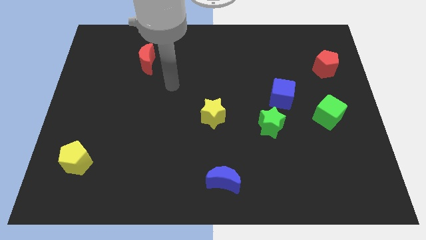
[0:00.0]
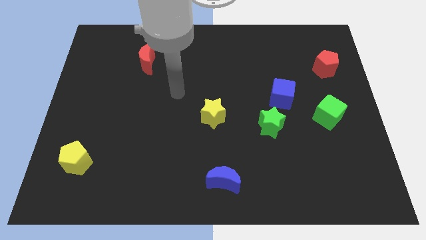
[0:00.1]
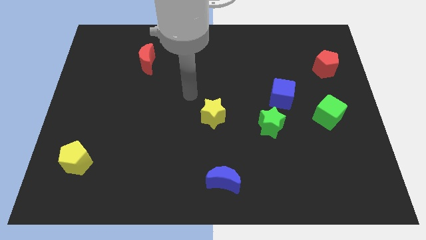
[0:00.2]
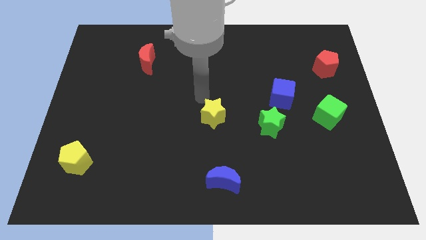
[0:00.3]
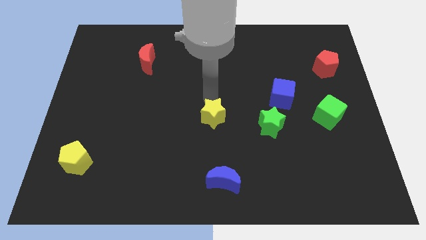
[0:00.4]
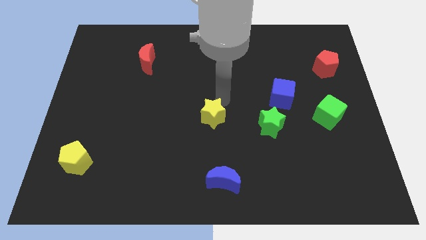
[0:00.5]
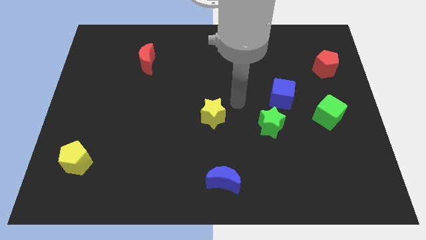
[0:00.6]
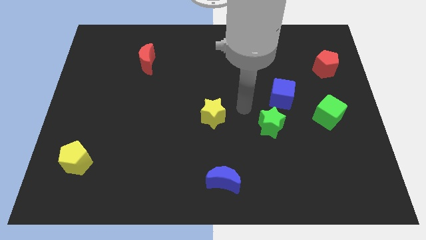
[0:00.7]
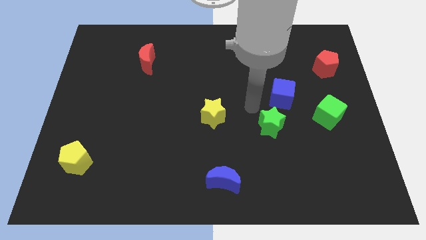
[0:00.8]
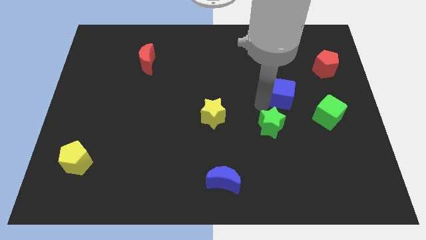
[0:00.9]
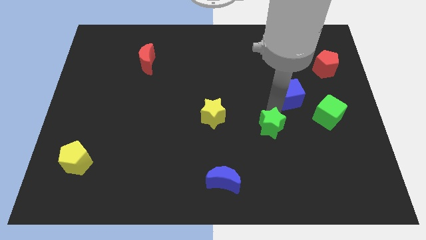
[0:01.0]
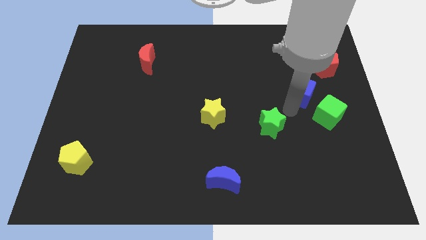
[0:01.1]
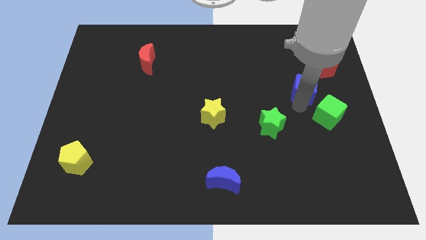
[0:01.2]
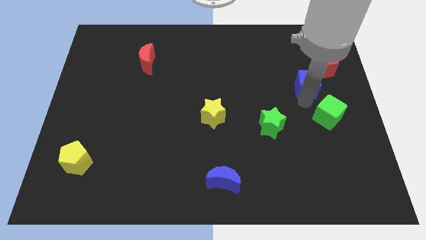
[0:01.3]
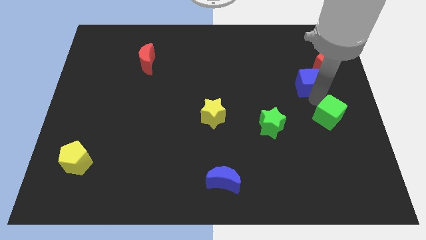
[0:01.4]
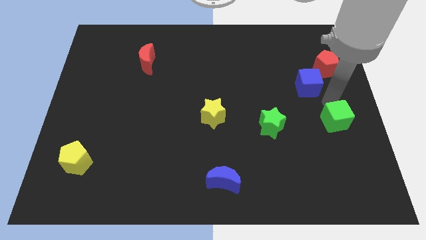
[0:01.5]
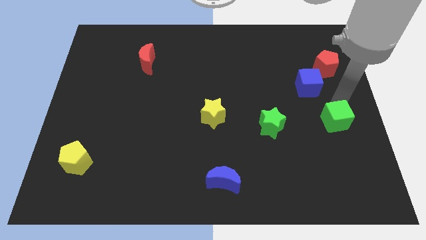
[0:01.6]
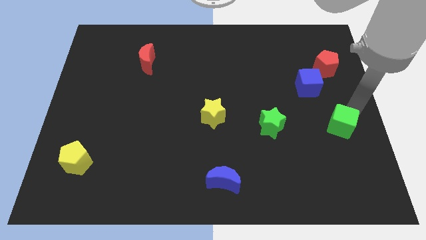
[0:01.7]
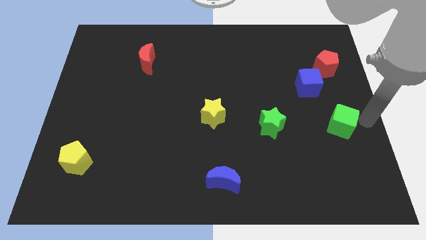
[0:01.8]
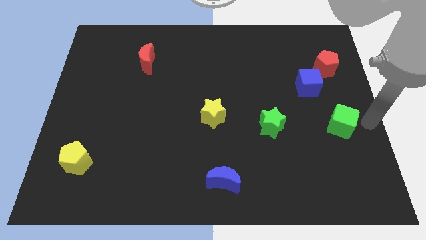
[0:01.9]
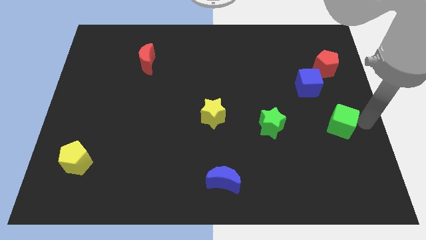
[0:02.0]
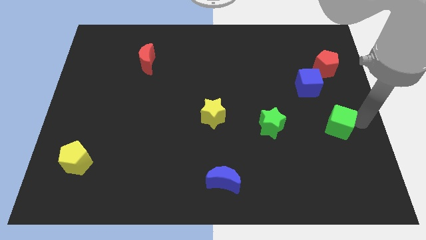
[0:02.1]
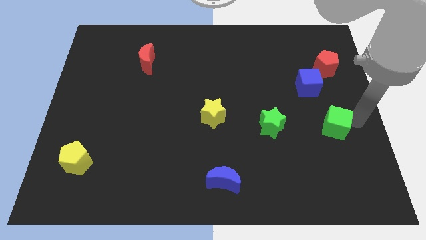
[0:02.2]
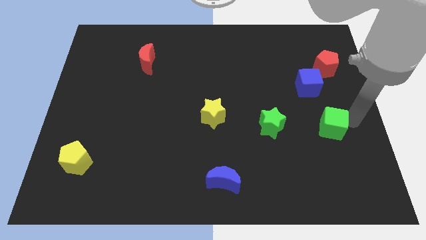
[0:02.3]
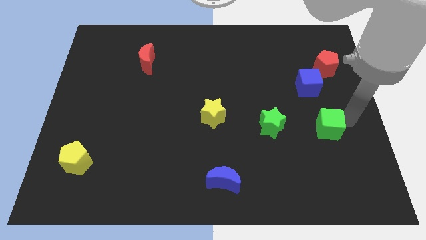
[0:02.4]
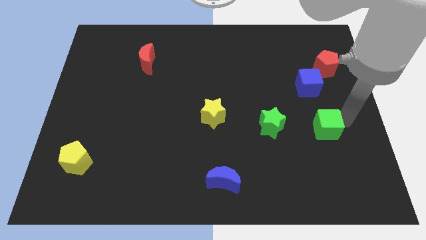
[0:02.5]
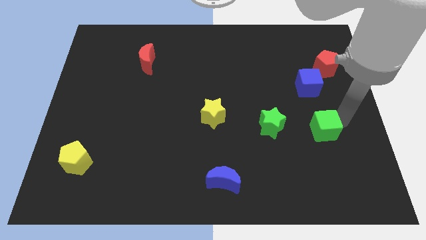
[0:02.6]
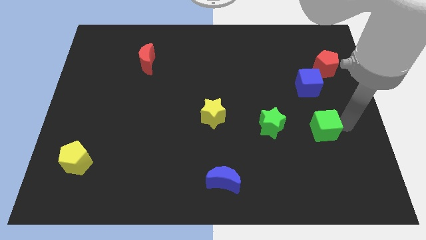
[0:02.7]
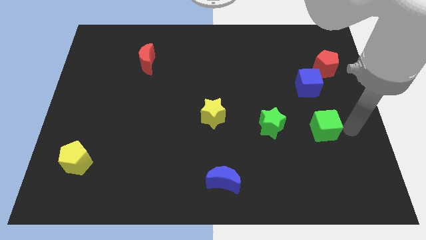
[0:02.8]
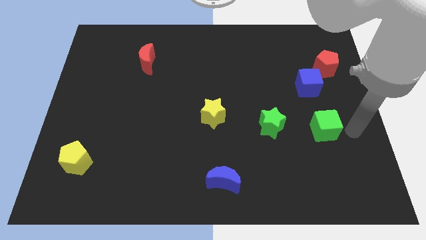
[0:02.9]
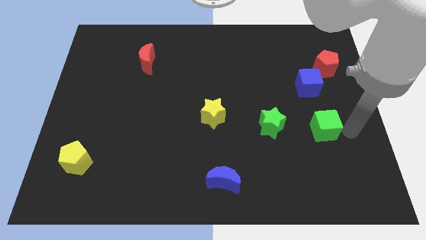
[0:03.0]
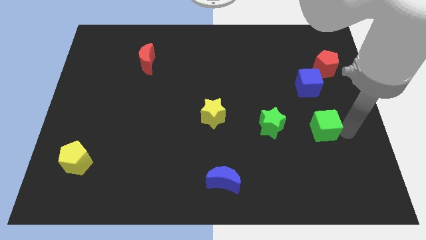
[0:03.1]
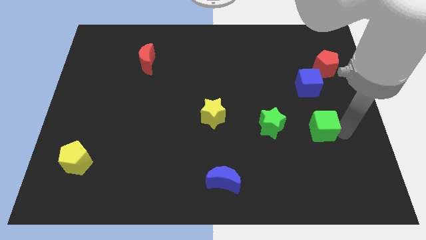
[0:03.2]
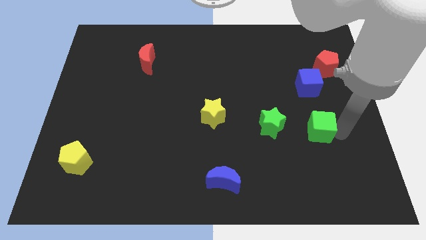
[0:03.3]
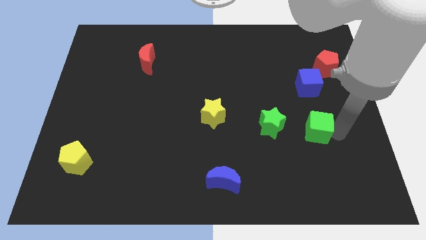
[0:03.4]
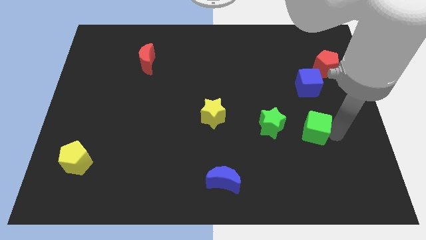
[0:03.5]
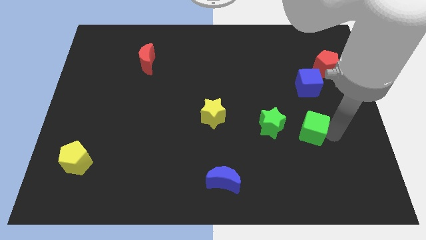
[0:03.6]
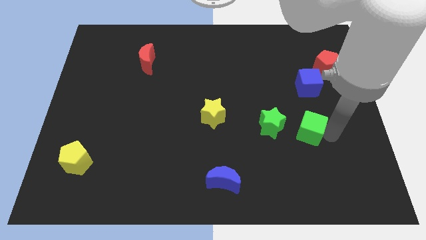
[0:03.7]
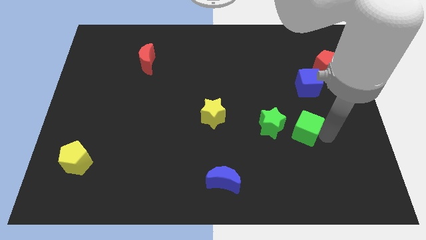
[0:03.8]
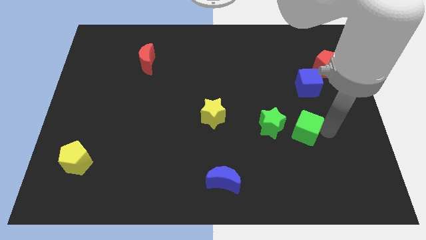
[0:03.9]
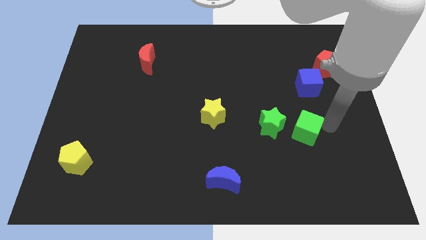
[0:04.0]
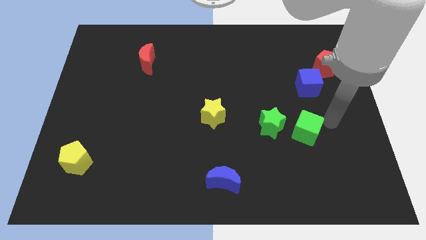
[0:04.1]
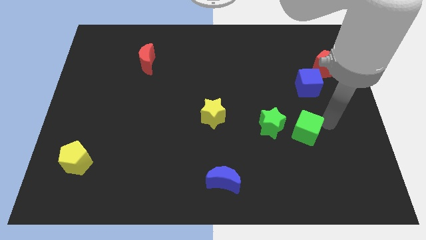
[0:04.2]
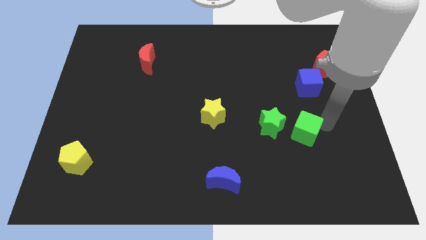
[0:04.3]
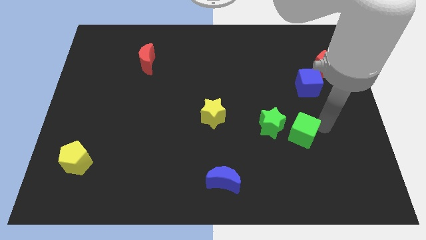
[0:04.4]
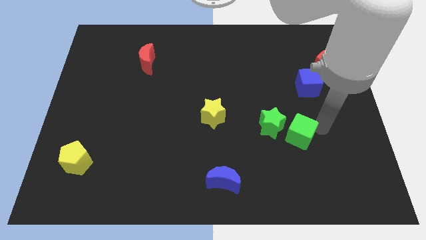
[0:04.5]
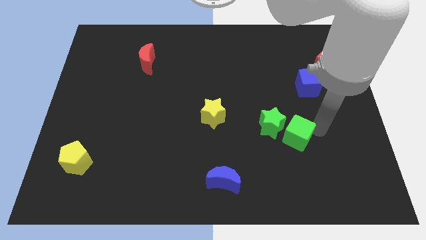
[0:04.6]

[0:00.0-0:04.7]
slightly move the green cube to the left

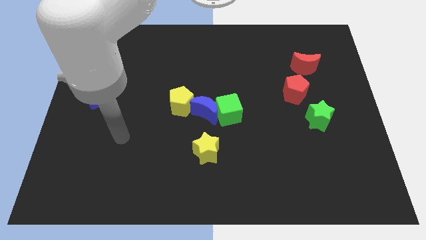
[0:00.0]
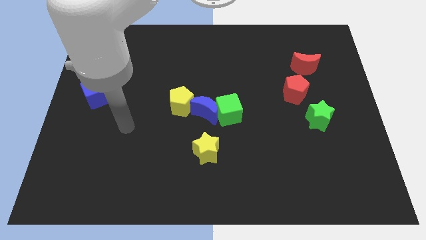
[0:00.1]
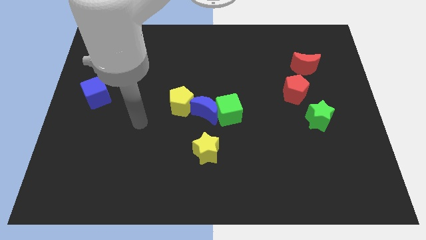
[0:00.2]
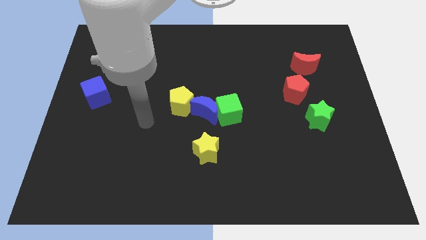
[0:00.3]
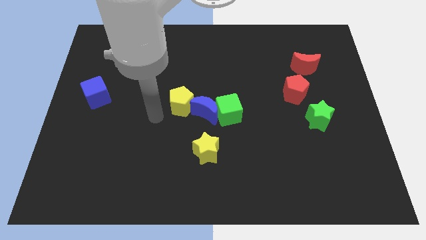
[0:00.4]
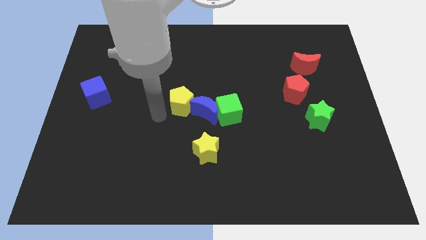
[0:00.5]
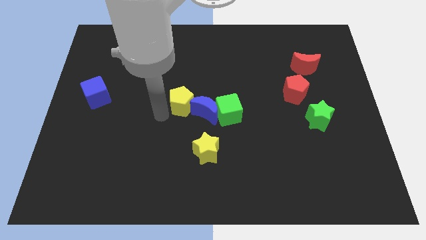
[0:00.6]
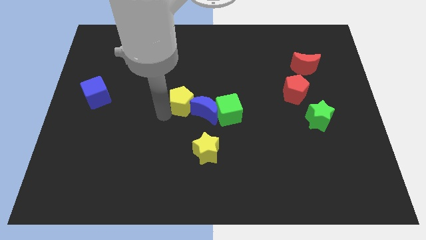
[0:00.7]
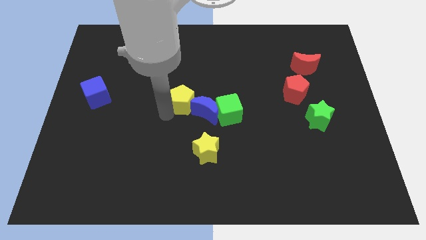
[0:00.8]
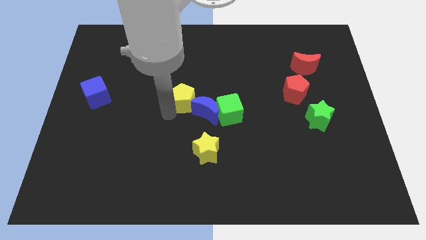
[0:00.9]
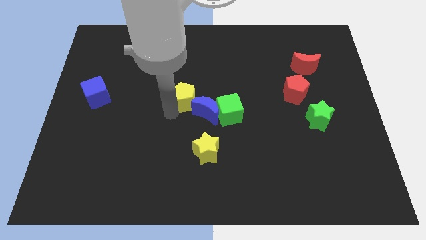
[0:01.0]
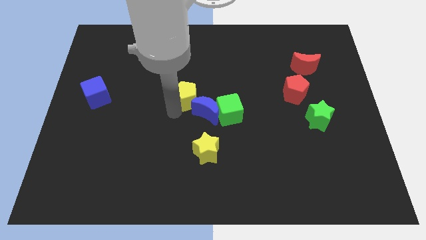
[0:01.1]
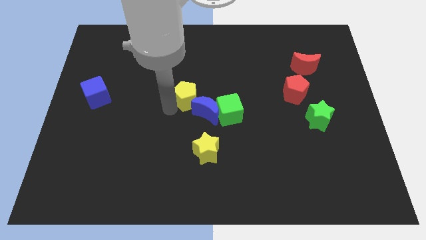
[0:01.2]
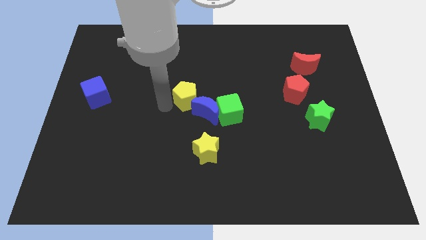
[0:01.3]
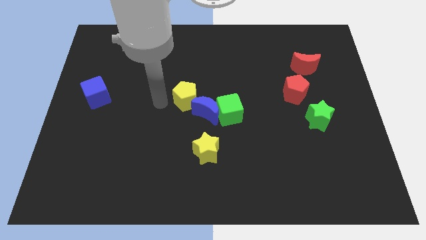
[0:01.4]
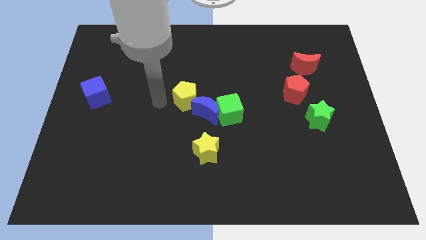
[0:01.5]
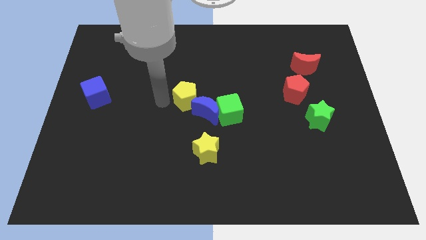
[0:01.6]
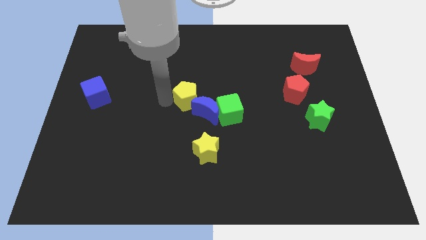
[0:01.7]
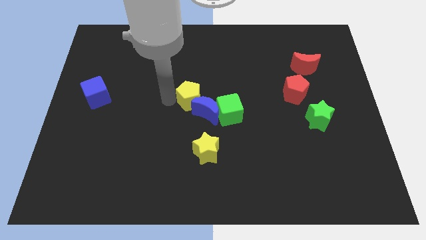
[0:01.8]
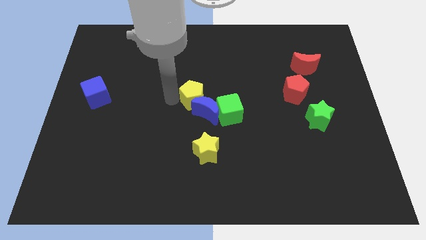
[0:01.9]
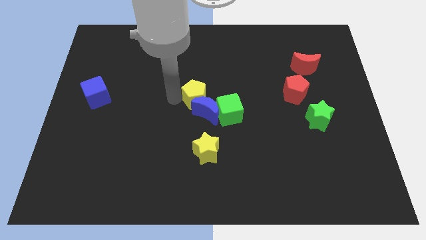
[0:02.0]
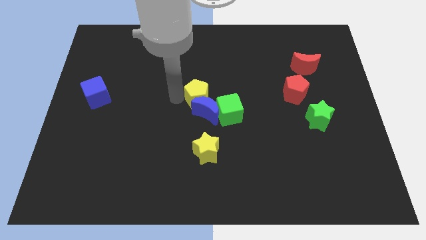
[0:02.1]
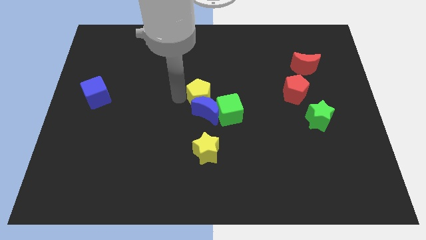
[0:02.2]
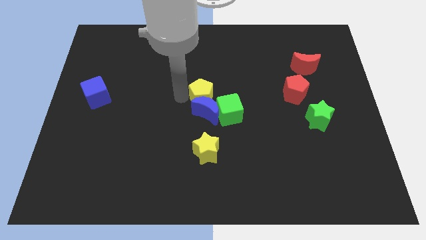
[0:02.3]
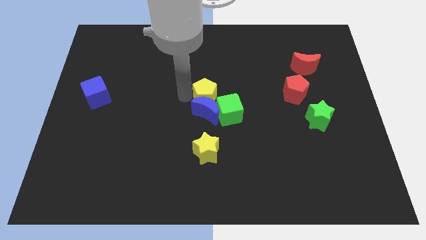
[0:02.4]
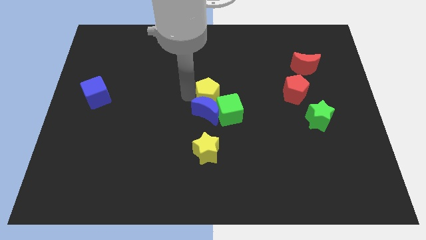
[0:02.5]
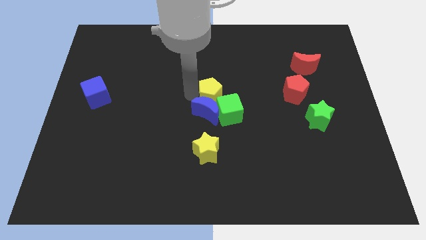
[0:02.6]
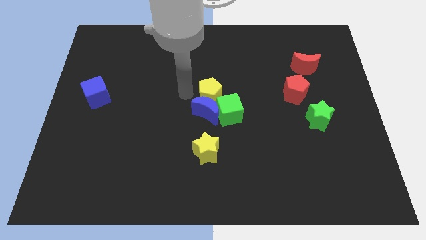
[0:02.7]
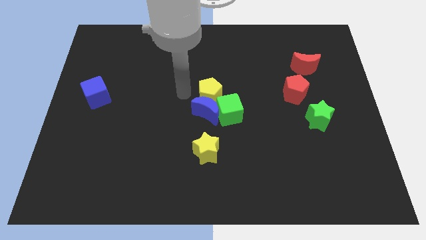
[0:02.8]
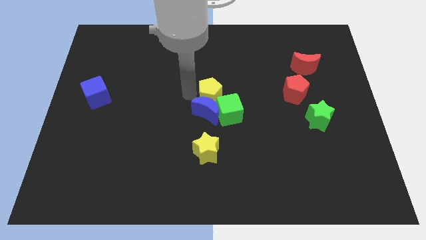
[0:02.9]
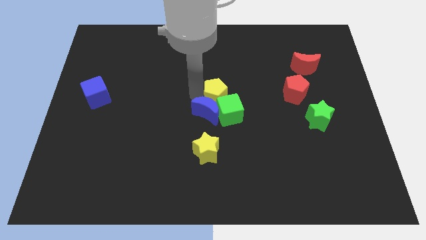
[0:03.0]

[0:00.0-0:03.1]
push the yellow pentagon a little bit right

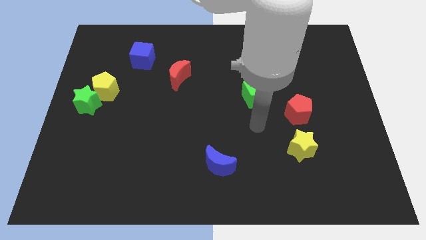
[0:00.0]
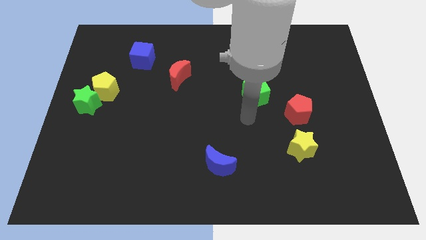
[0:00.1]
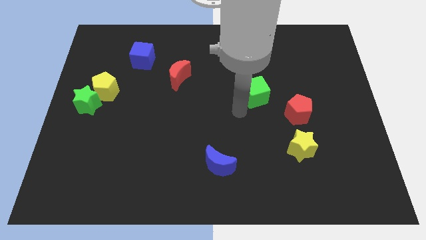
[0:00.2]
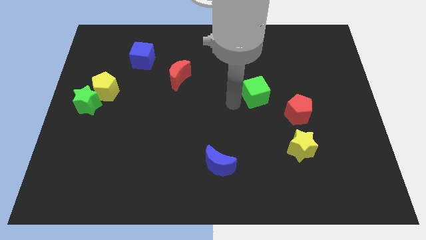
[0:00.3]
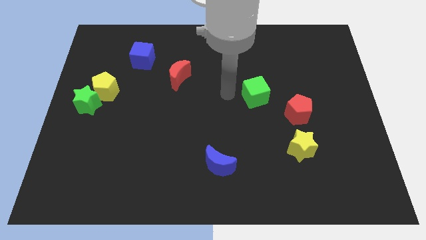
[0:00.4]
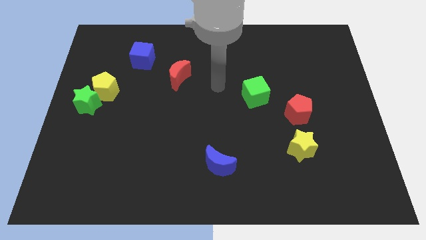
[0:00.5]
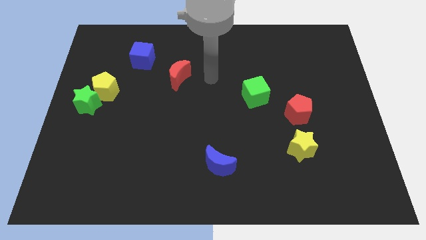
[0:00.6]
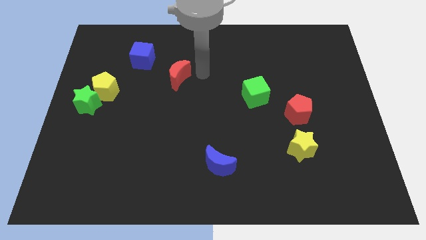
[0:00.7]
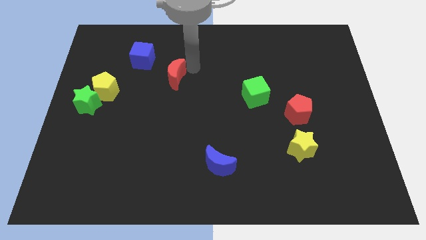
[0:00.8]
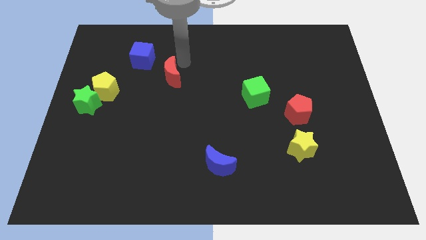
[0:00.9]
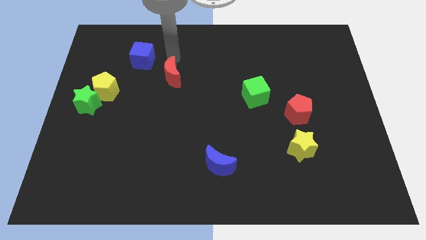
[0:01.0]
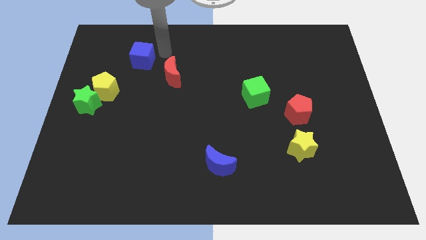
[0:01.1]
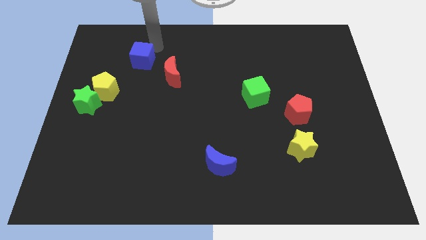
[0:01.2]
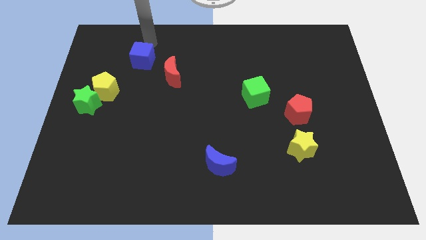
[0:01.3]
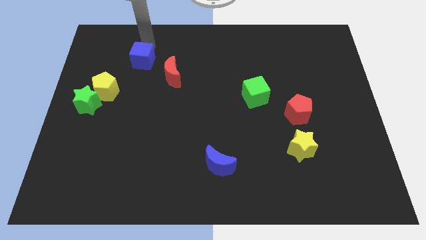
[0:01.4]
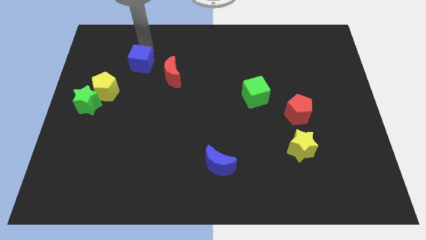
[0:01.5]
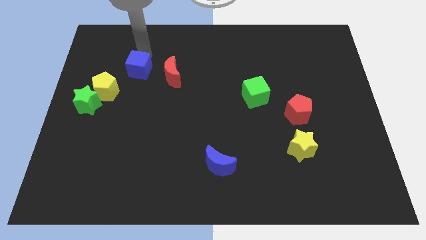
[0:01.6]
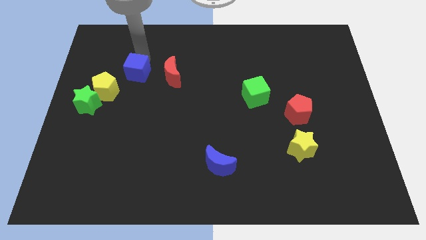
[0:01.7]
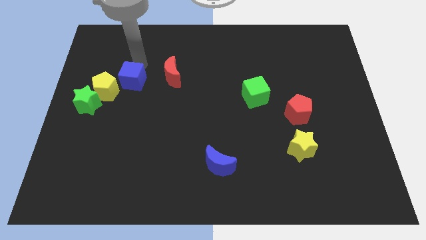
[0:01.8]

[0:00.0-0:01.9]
slide the blue cube a little downwards
